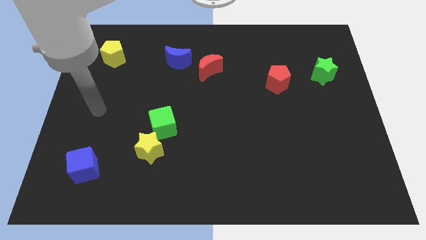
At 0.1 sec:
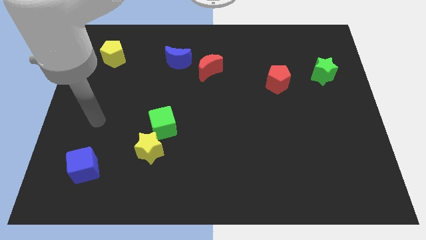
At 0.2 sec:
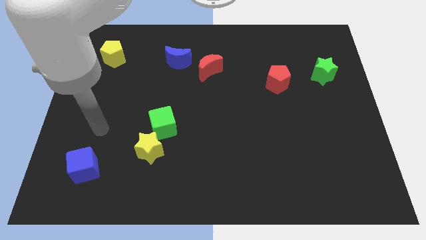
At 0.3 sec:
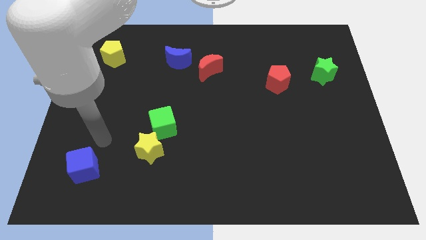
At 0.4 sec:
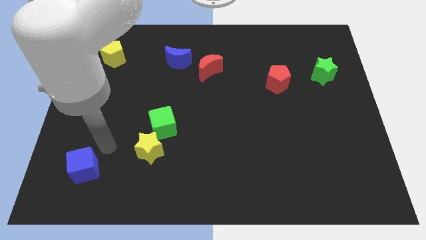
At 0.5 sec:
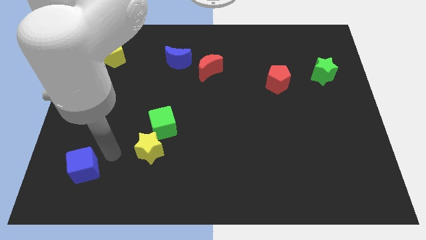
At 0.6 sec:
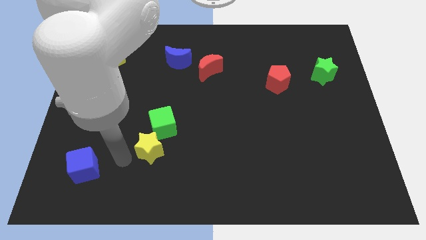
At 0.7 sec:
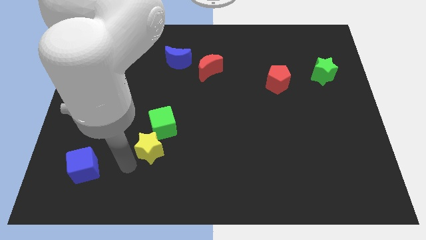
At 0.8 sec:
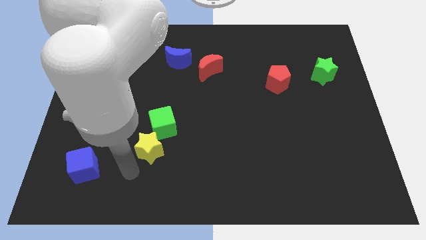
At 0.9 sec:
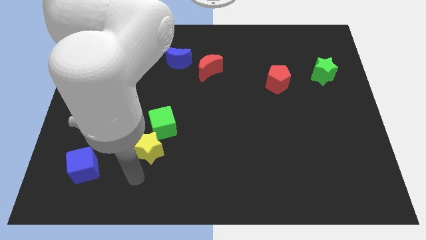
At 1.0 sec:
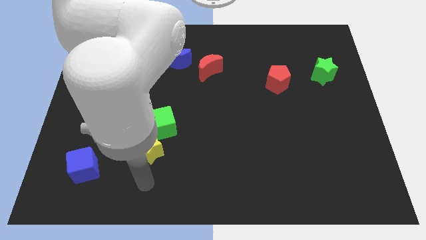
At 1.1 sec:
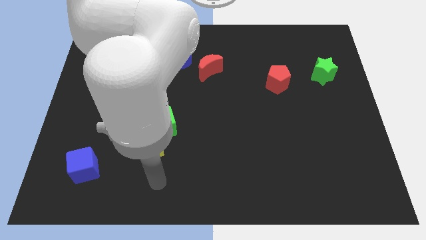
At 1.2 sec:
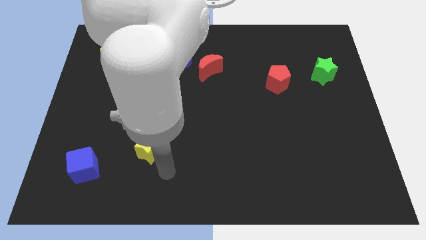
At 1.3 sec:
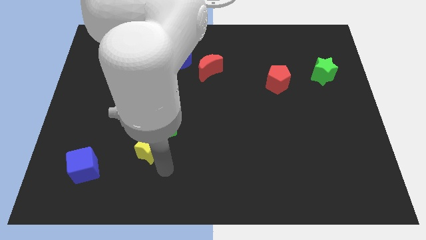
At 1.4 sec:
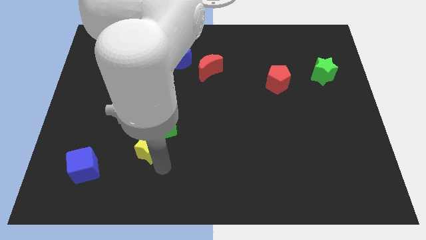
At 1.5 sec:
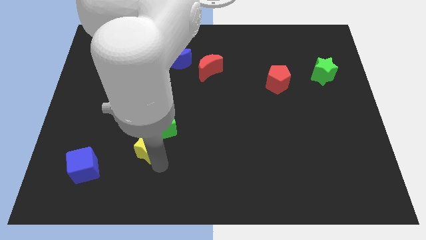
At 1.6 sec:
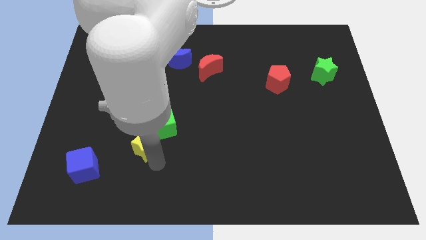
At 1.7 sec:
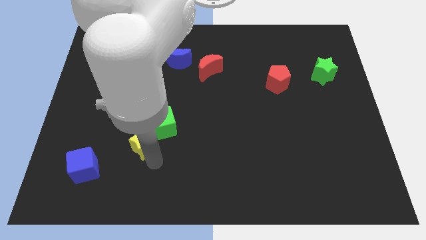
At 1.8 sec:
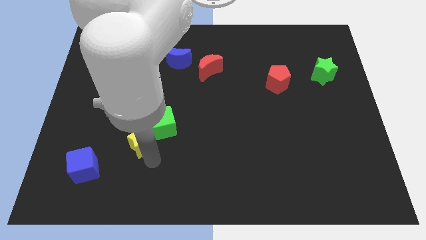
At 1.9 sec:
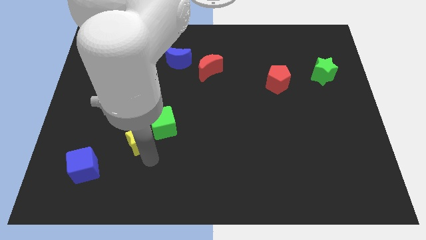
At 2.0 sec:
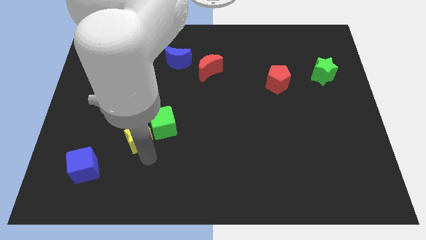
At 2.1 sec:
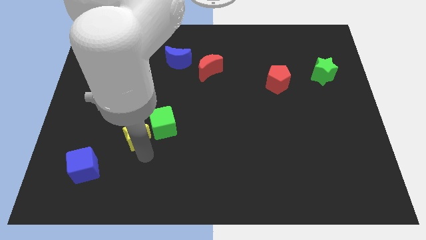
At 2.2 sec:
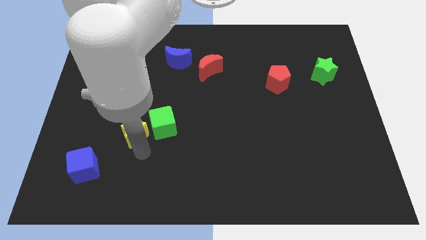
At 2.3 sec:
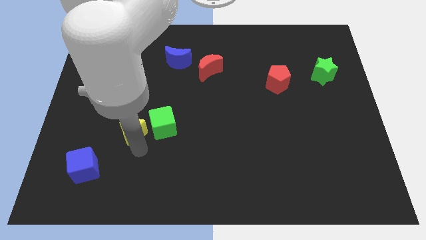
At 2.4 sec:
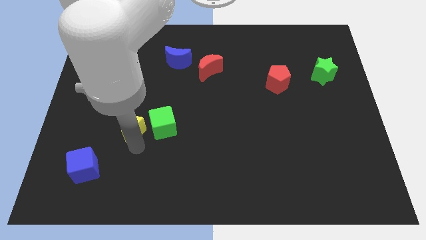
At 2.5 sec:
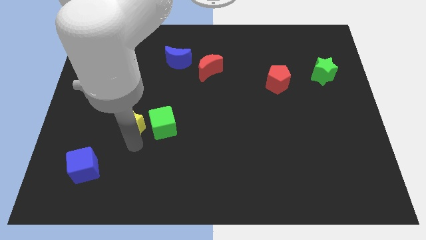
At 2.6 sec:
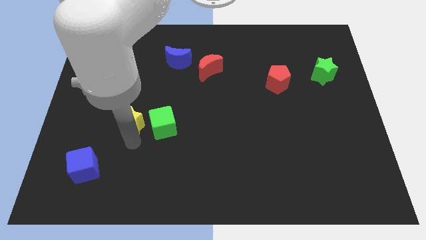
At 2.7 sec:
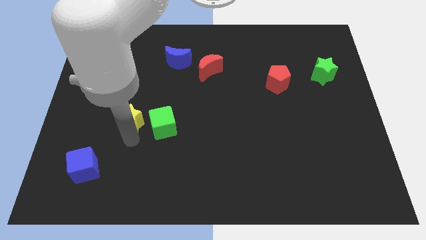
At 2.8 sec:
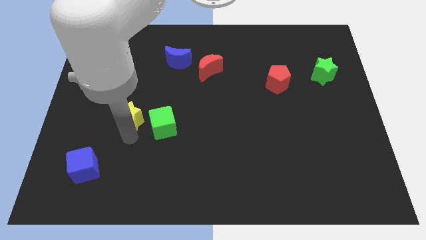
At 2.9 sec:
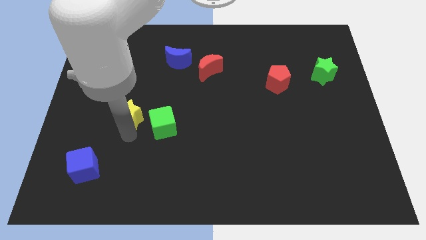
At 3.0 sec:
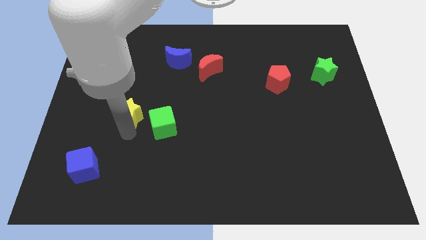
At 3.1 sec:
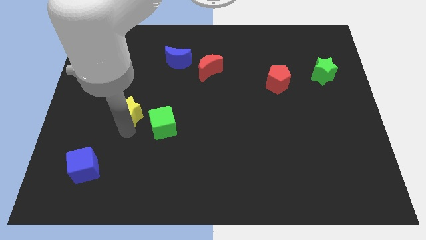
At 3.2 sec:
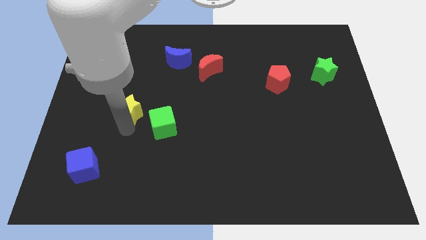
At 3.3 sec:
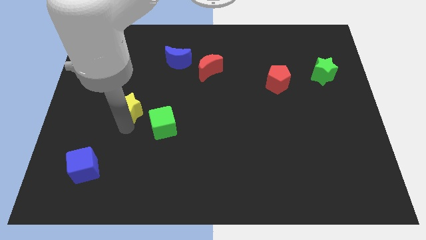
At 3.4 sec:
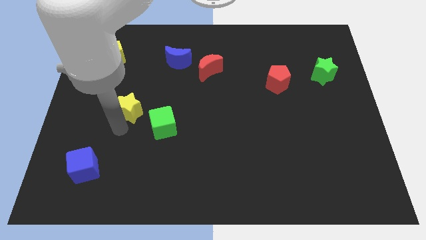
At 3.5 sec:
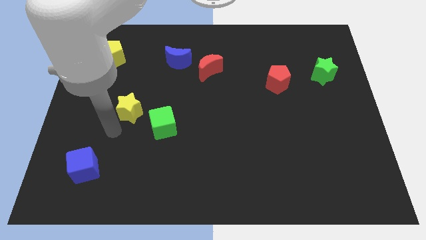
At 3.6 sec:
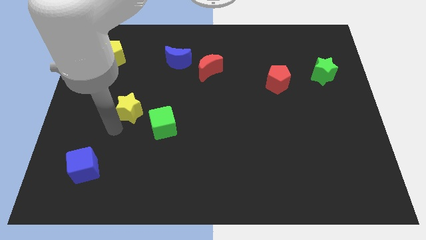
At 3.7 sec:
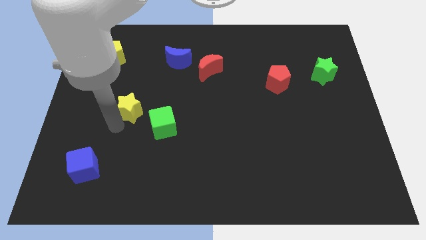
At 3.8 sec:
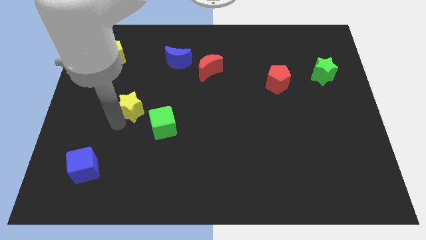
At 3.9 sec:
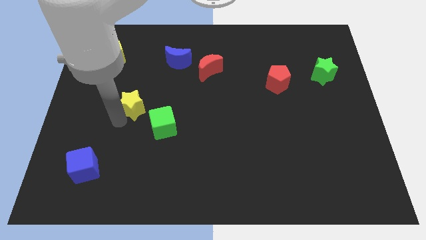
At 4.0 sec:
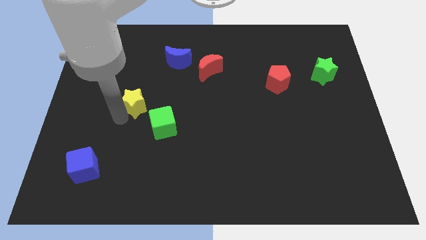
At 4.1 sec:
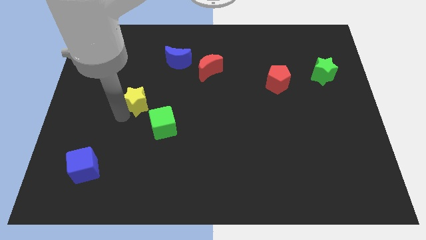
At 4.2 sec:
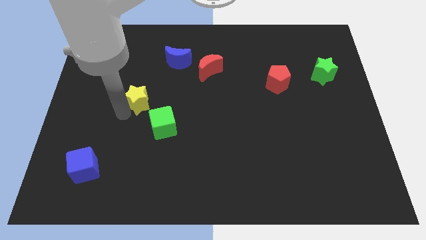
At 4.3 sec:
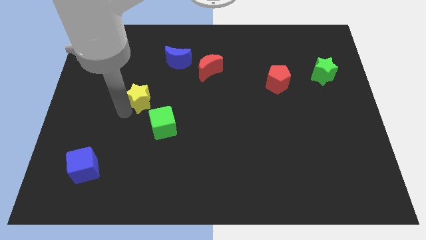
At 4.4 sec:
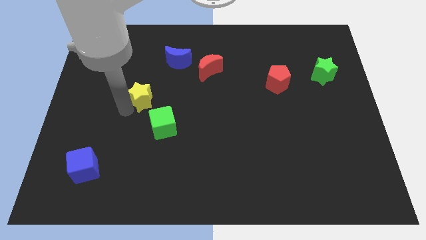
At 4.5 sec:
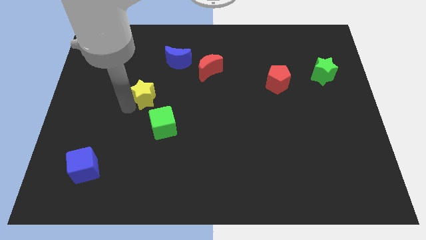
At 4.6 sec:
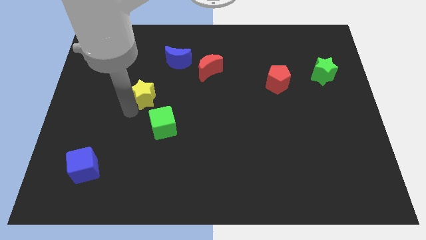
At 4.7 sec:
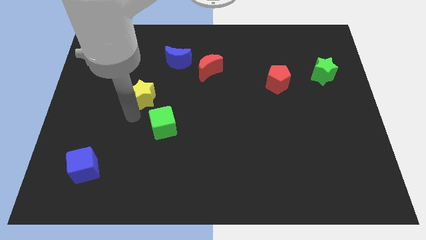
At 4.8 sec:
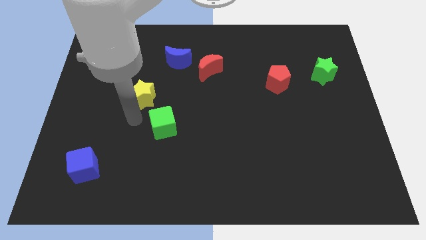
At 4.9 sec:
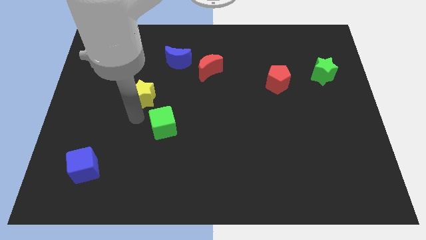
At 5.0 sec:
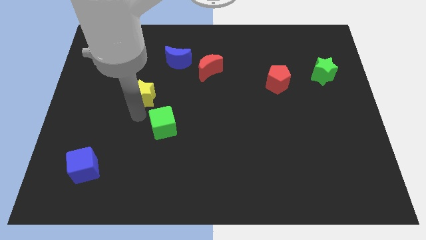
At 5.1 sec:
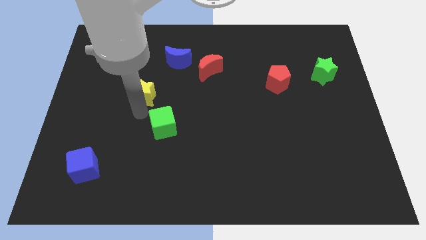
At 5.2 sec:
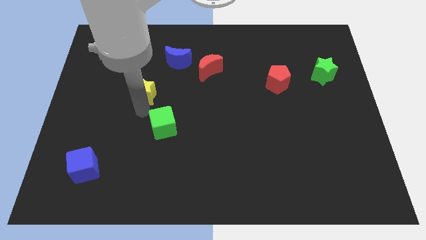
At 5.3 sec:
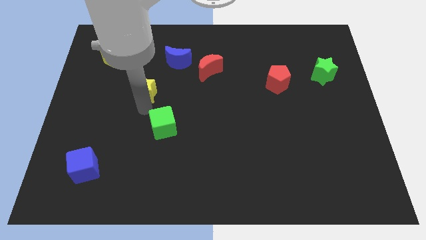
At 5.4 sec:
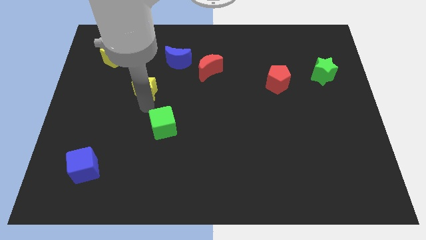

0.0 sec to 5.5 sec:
move the yellow star to the bottom left side of the blue moon

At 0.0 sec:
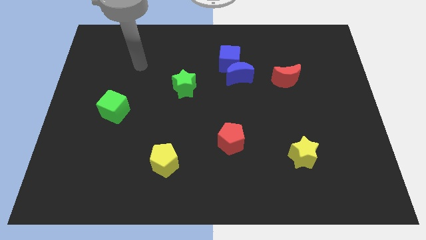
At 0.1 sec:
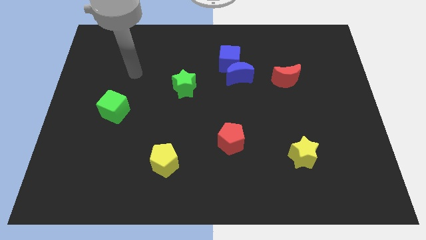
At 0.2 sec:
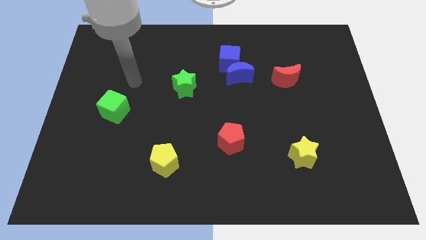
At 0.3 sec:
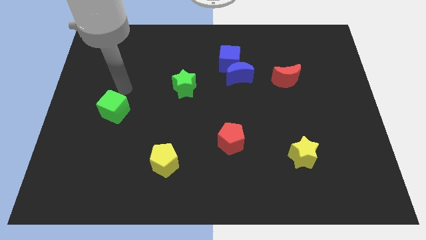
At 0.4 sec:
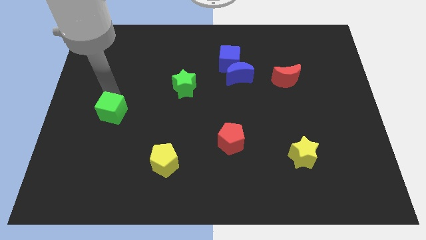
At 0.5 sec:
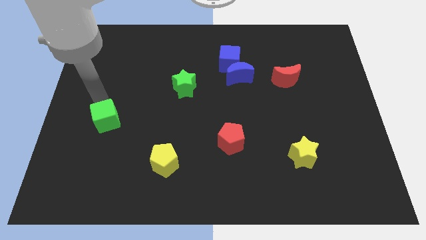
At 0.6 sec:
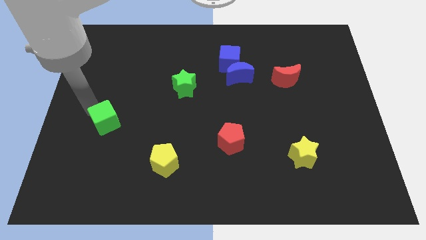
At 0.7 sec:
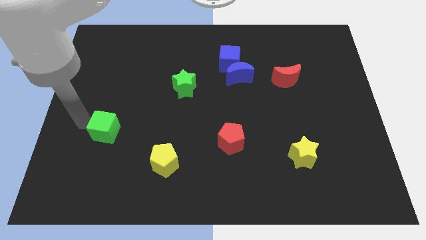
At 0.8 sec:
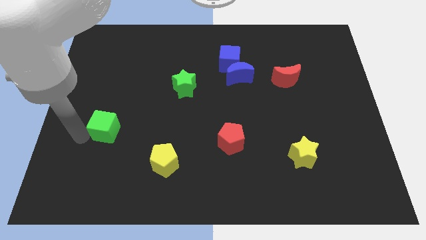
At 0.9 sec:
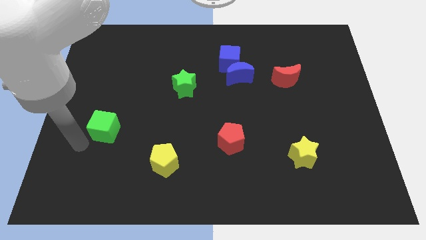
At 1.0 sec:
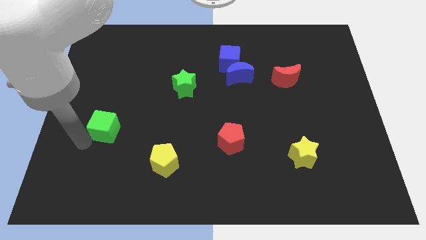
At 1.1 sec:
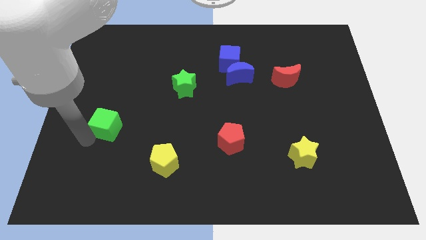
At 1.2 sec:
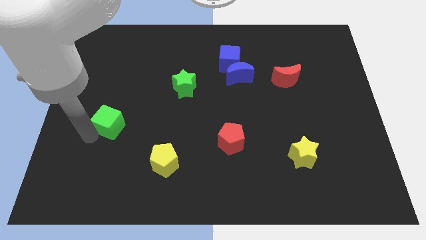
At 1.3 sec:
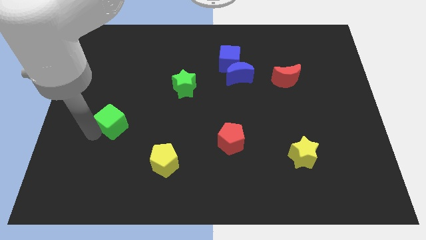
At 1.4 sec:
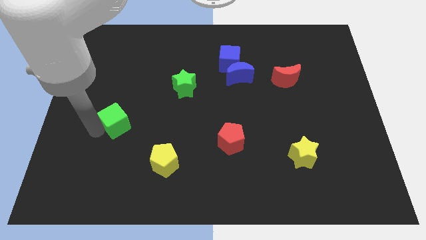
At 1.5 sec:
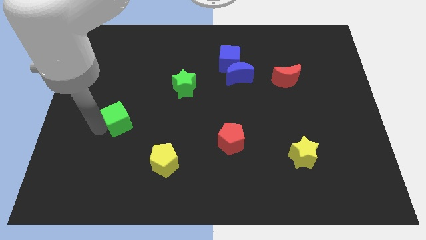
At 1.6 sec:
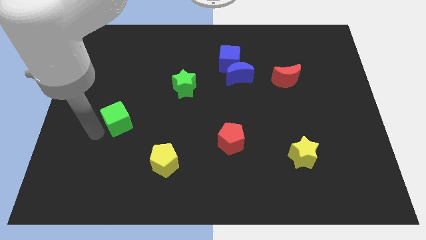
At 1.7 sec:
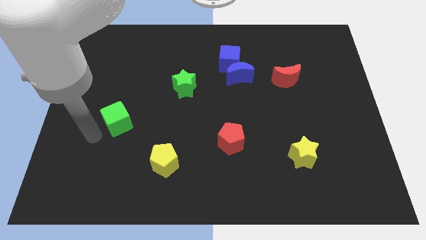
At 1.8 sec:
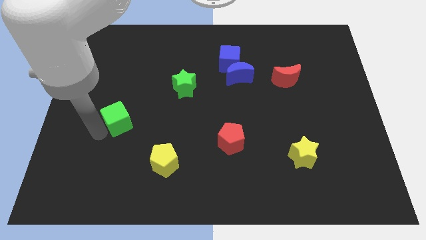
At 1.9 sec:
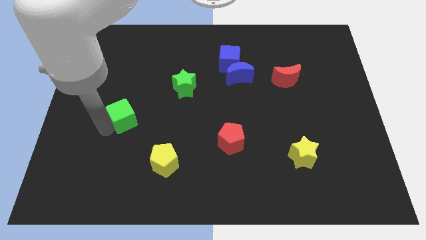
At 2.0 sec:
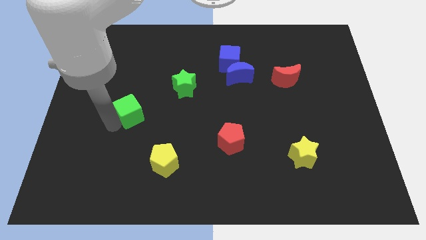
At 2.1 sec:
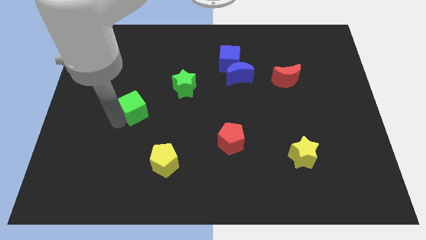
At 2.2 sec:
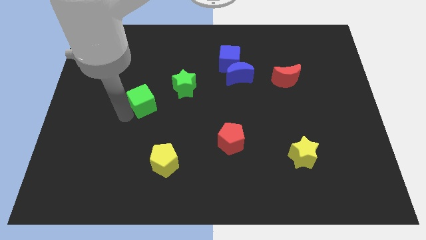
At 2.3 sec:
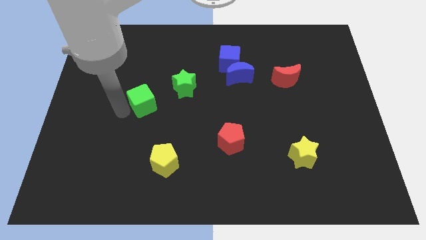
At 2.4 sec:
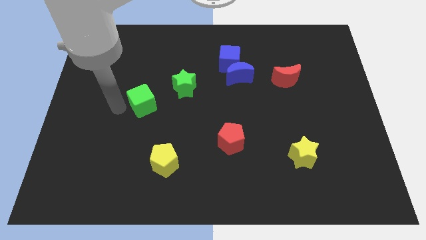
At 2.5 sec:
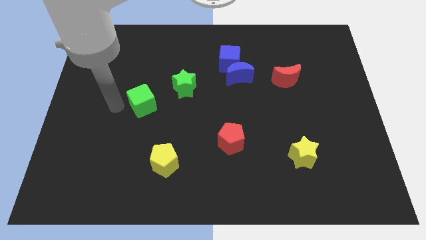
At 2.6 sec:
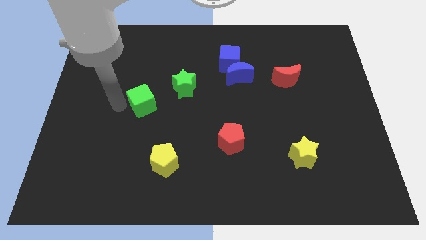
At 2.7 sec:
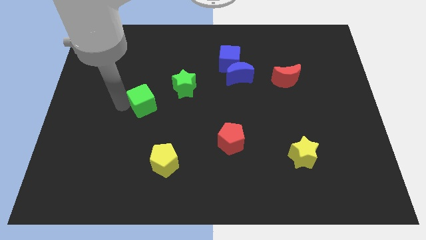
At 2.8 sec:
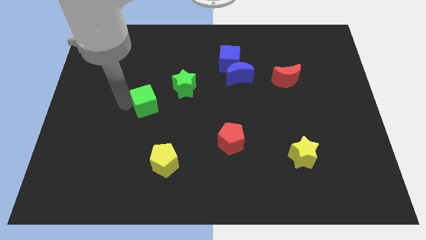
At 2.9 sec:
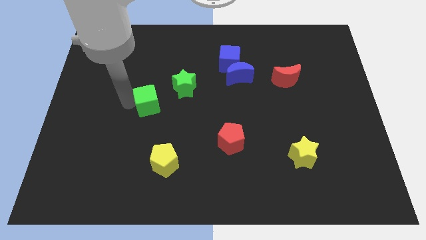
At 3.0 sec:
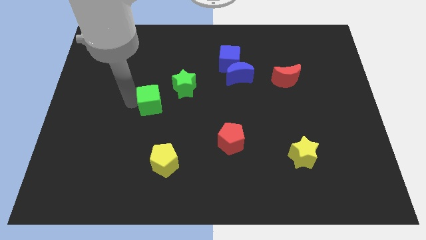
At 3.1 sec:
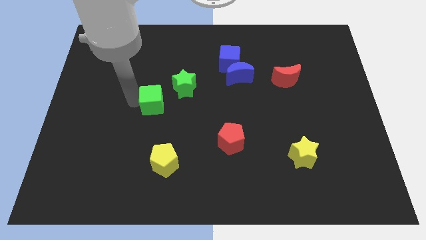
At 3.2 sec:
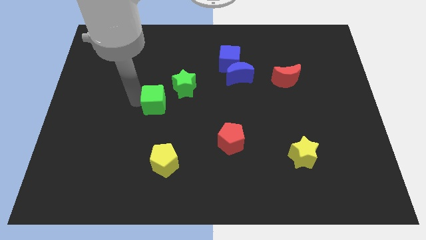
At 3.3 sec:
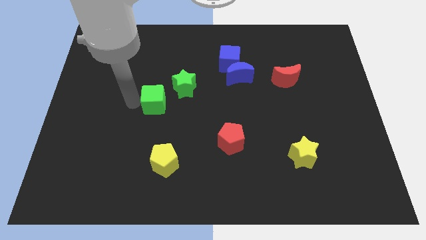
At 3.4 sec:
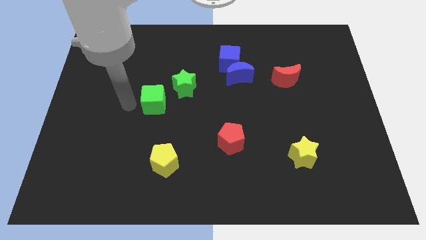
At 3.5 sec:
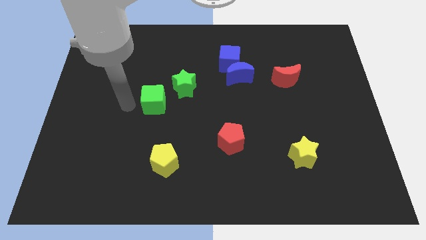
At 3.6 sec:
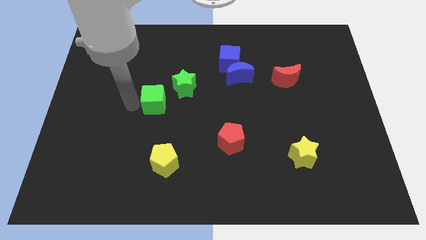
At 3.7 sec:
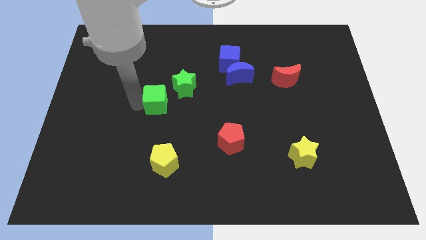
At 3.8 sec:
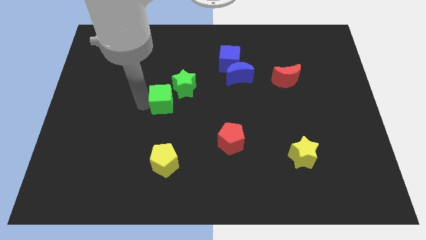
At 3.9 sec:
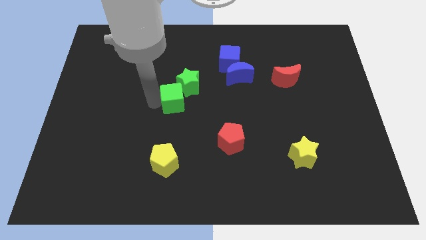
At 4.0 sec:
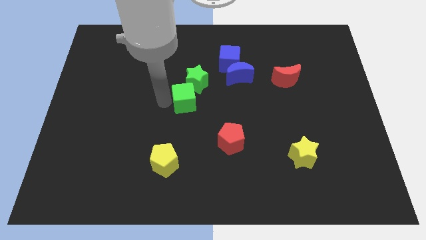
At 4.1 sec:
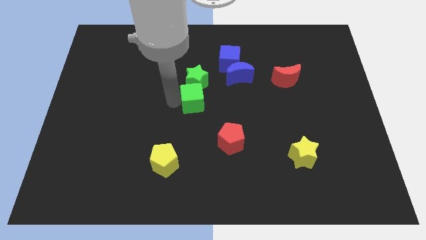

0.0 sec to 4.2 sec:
move the green cube to the bottom right side of the green star
